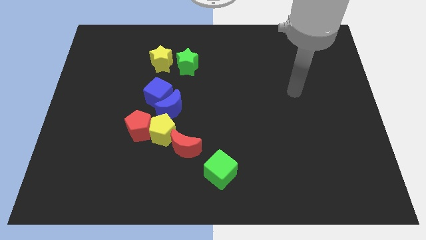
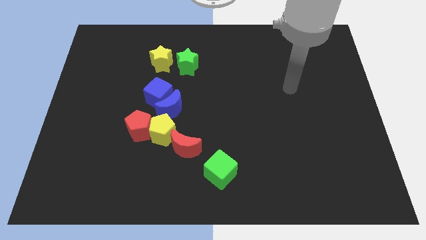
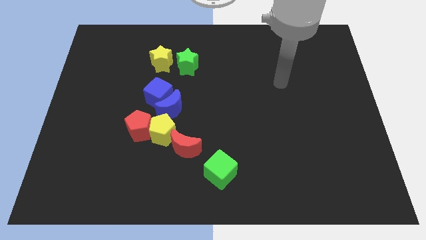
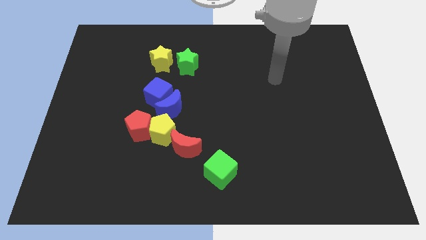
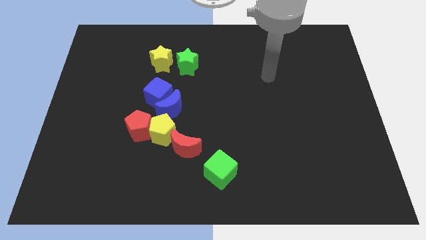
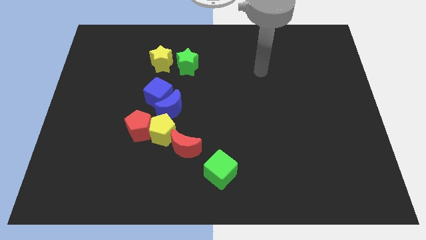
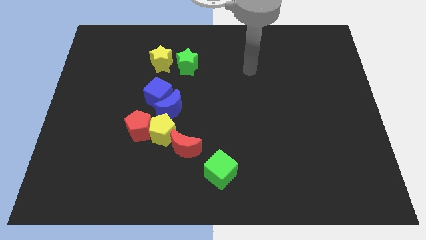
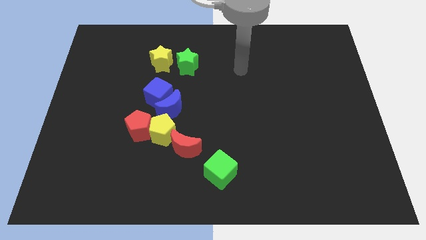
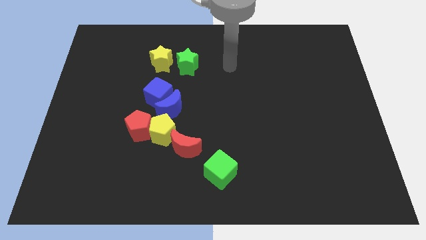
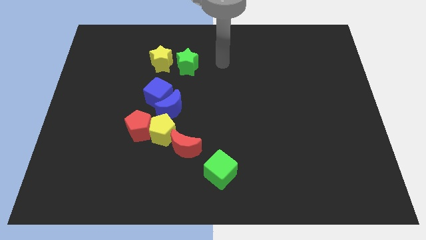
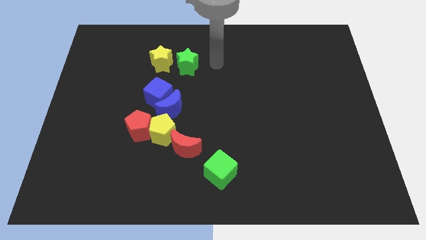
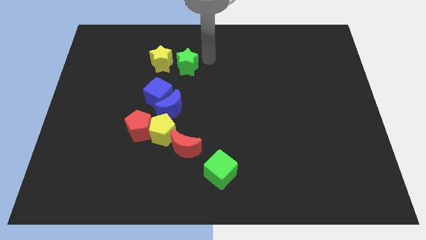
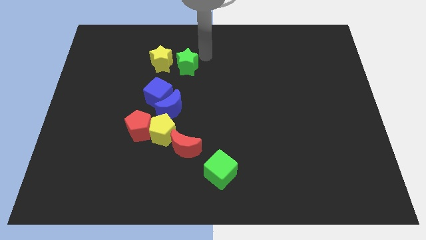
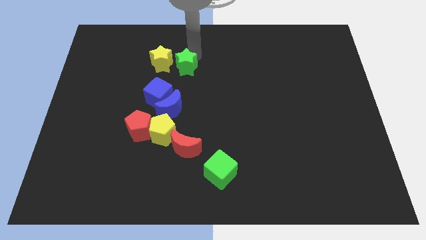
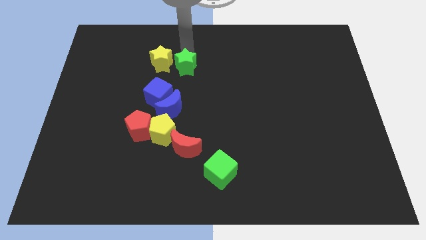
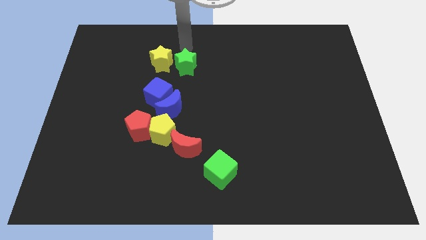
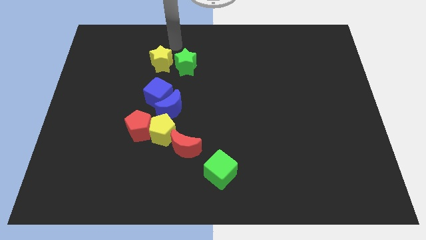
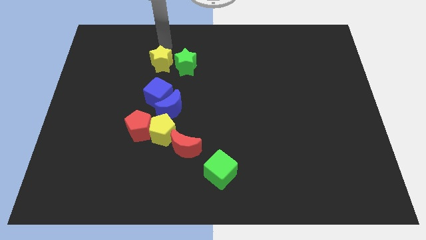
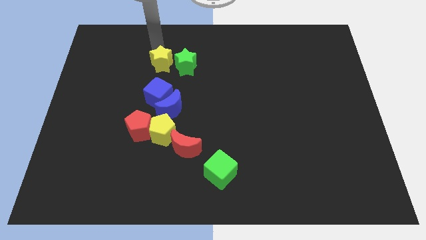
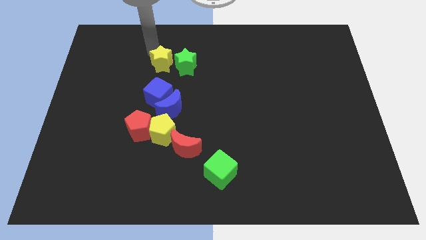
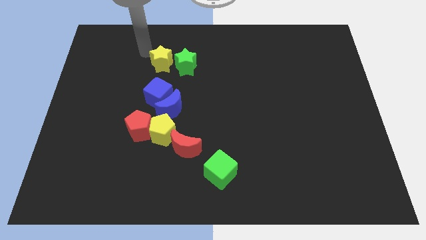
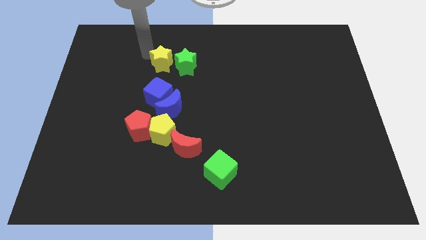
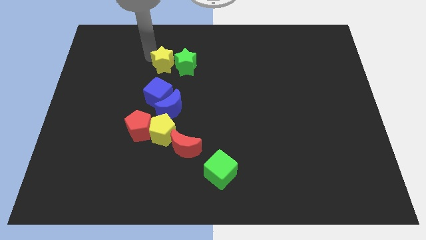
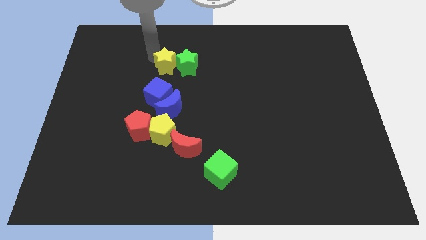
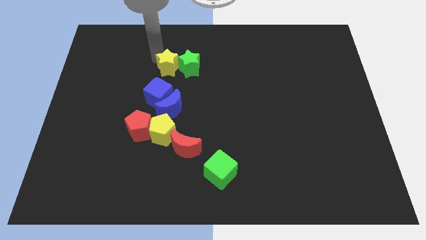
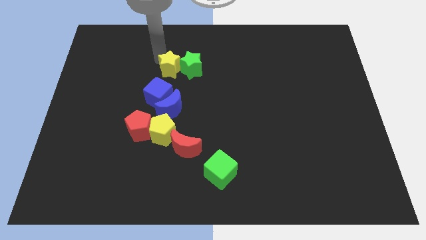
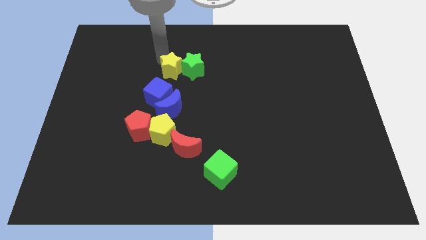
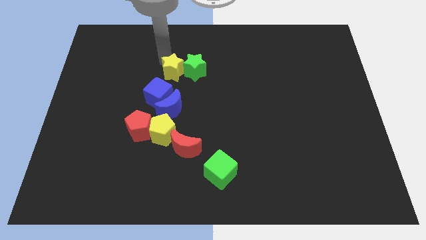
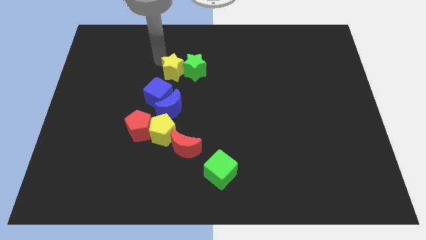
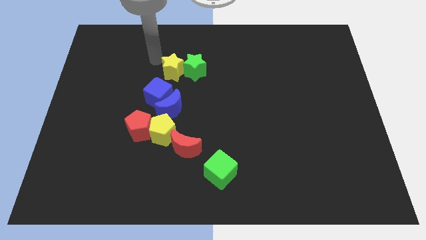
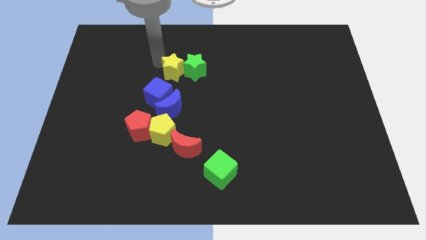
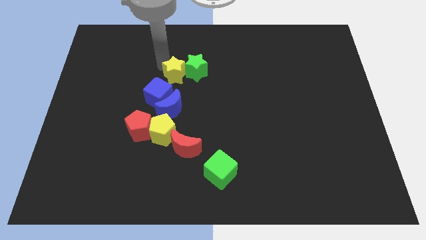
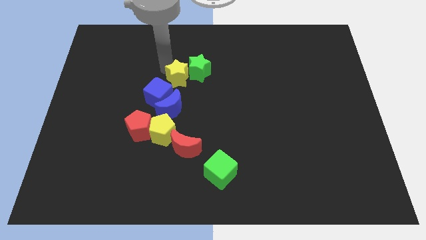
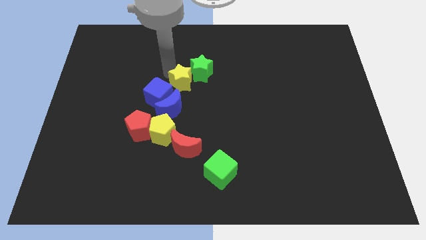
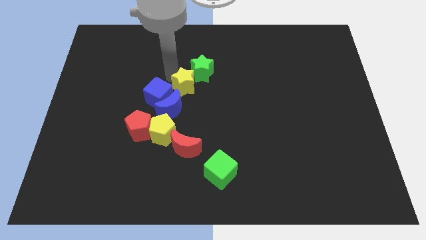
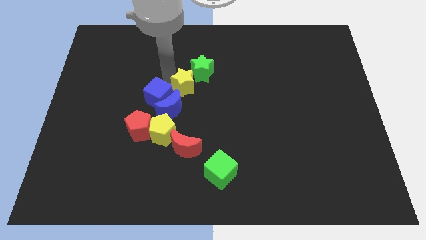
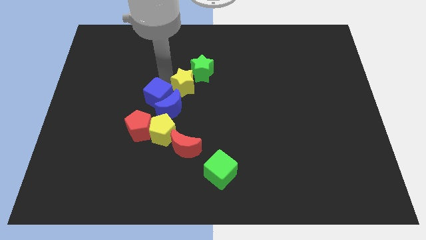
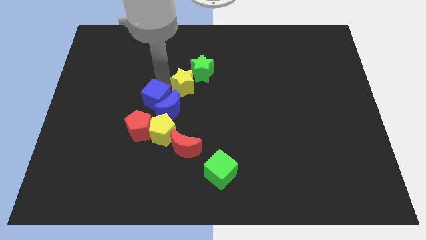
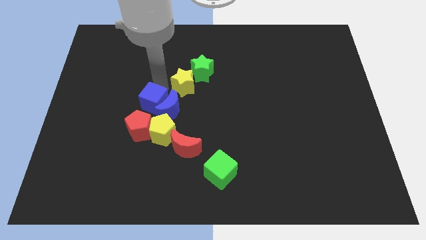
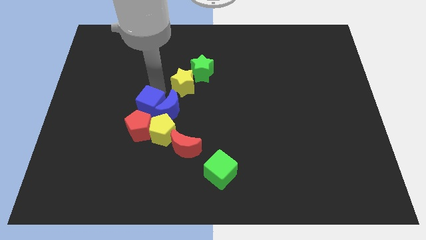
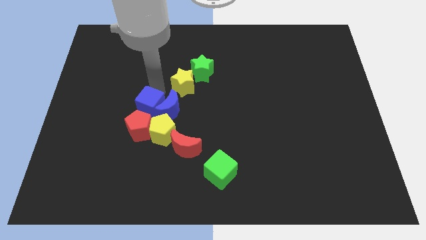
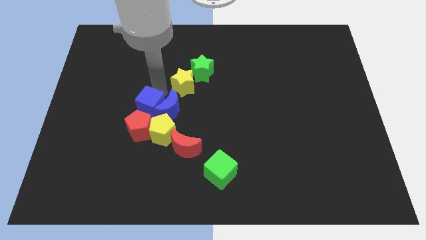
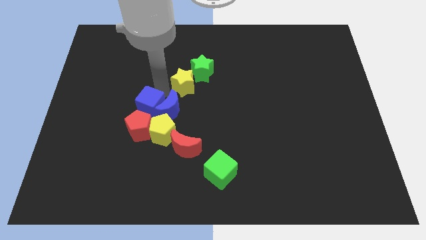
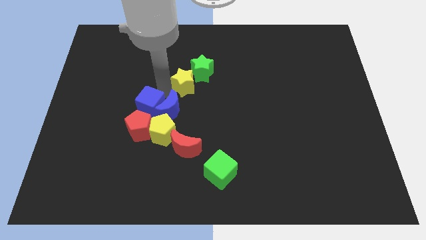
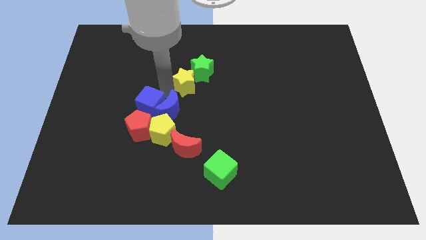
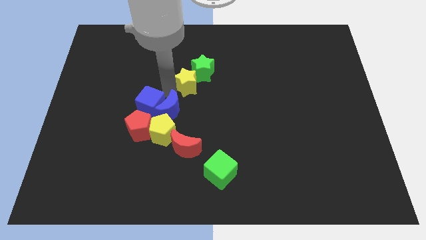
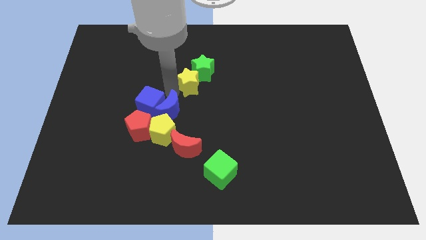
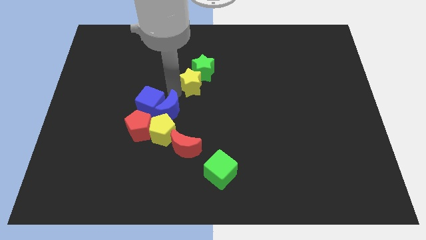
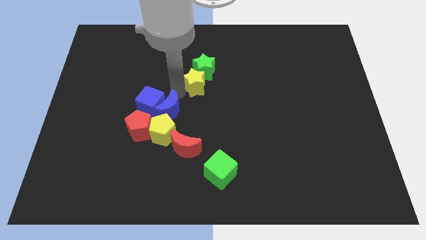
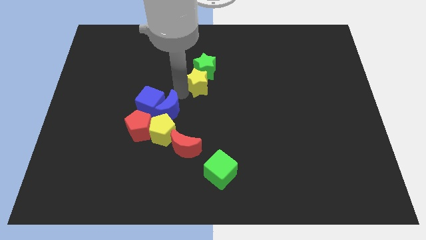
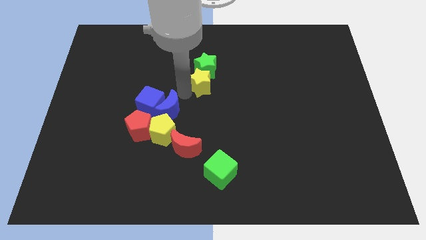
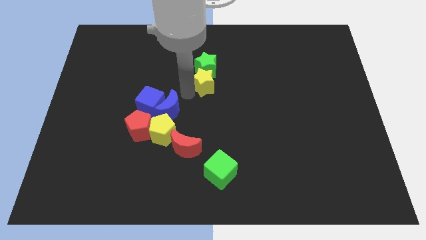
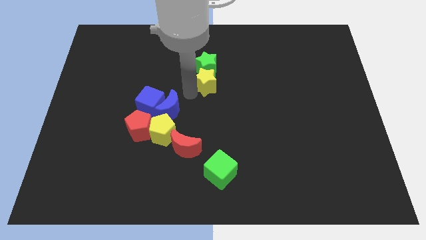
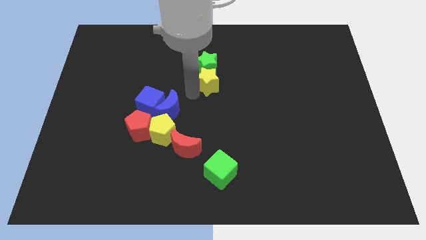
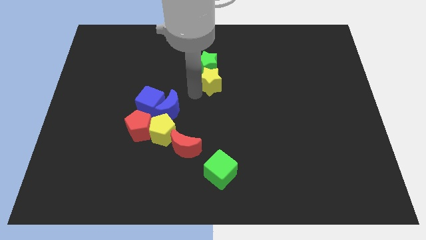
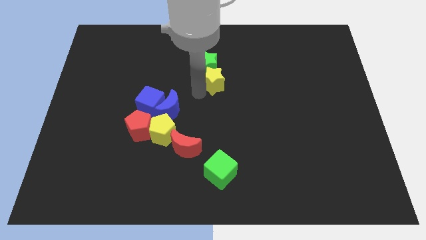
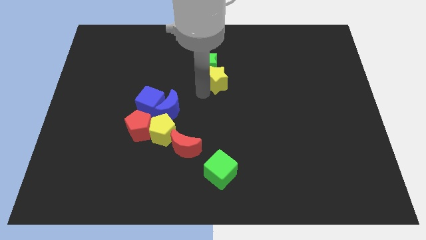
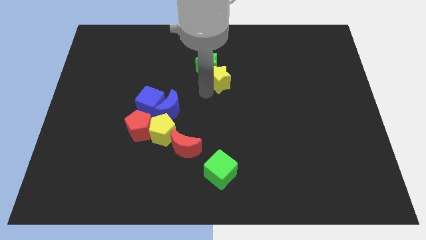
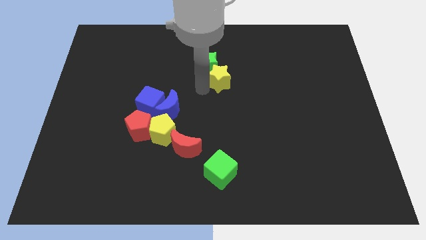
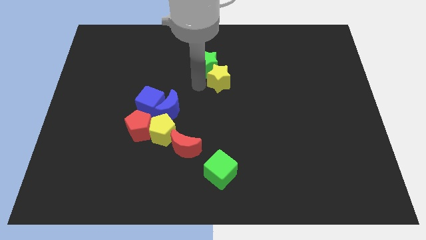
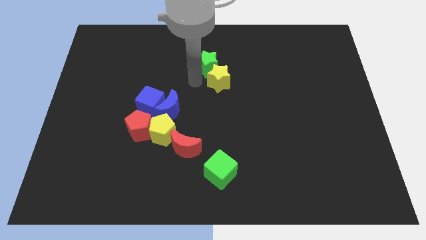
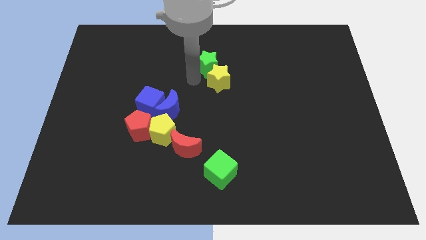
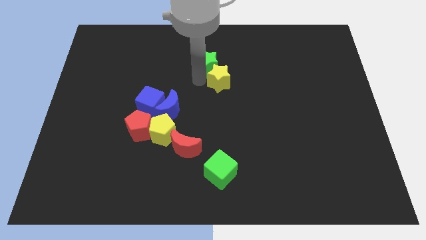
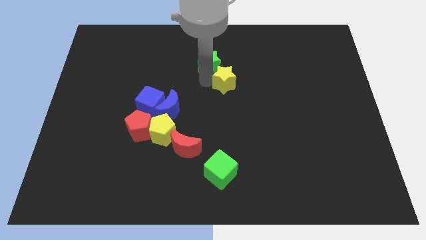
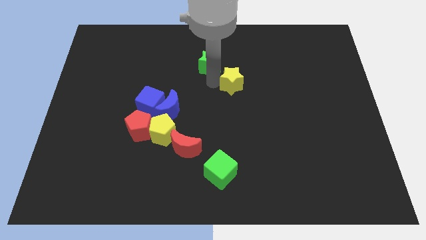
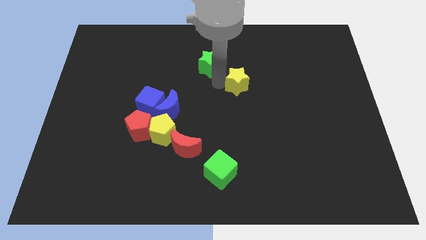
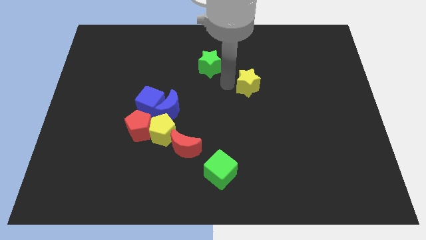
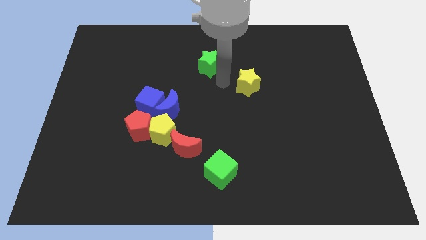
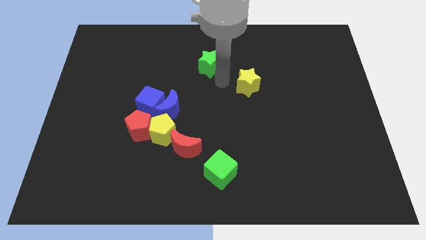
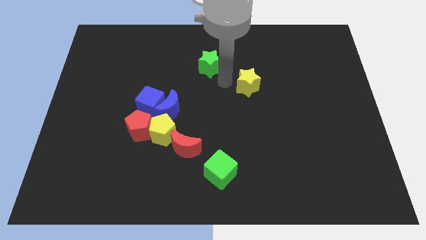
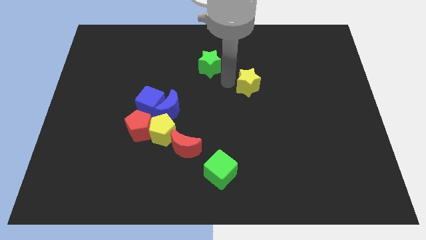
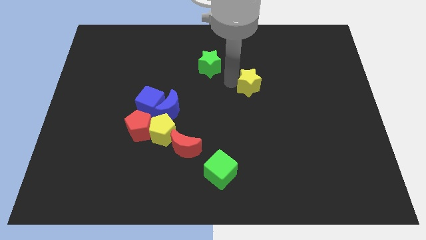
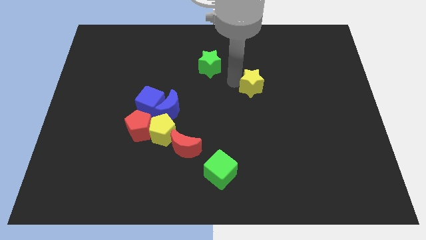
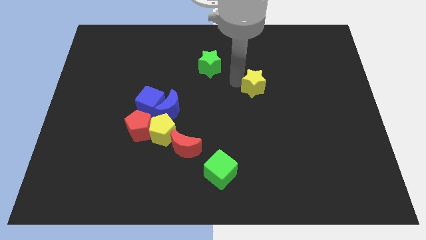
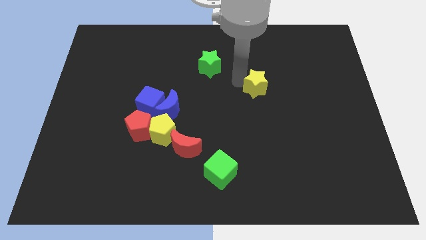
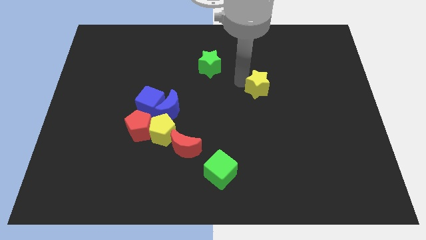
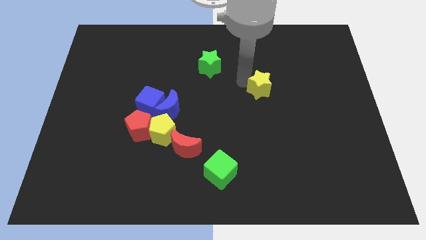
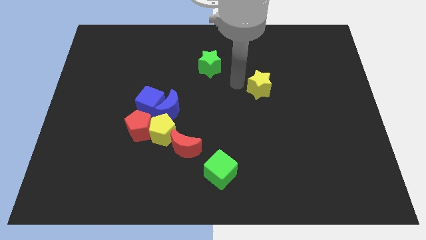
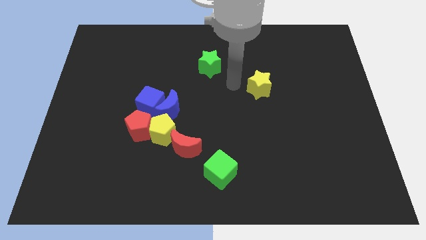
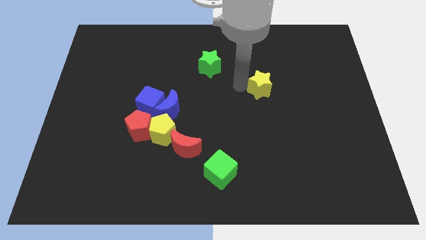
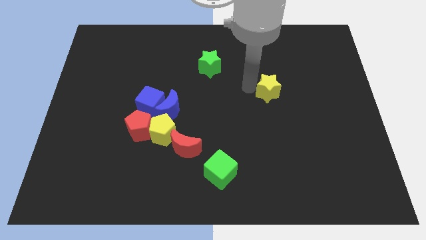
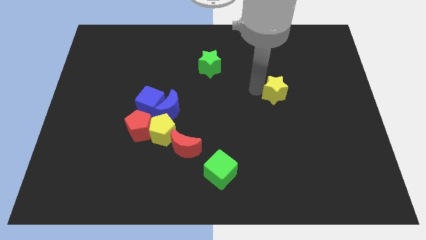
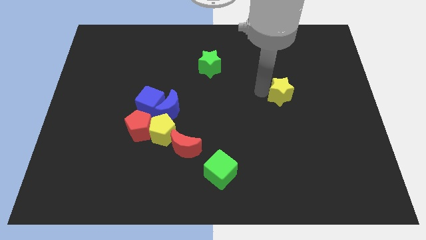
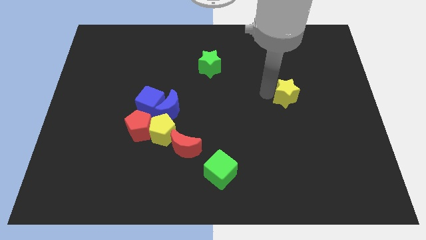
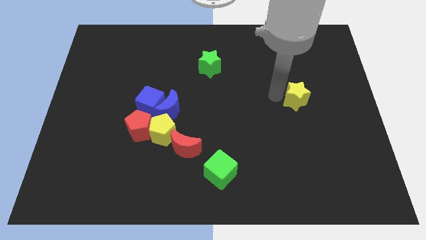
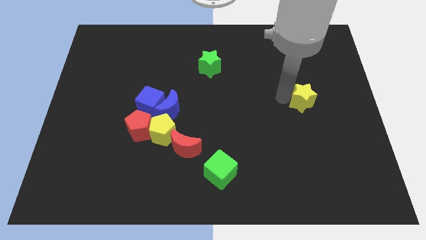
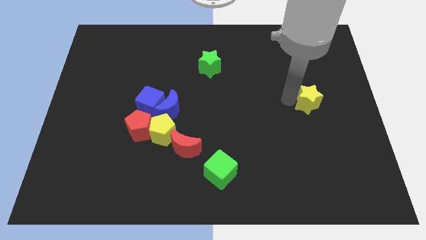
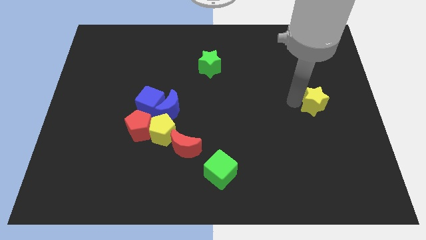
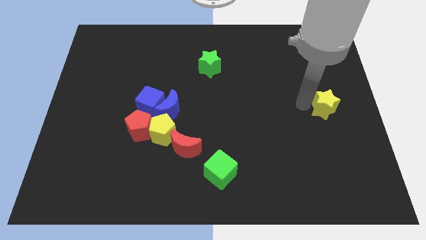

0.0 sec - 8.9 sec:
push the yellow star to the center right
